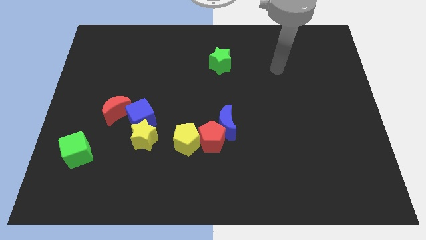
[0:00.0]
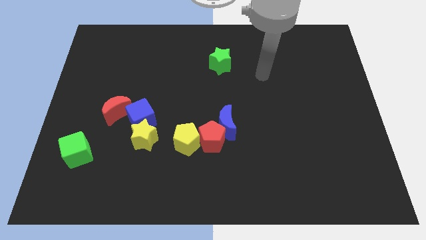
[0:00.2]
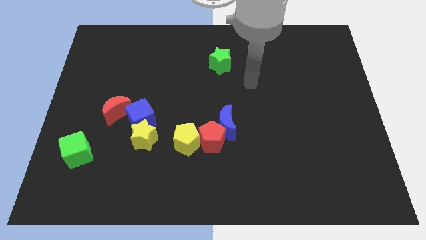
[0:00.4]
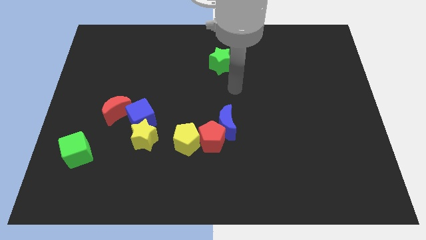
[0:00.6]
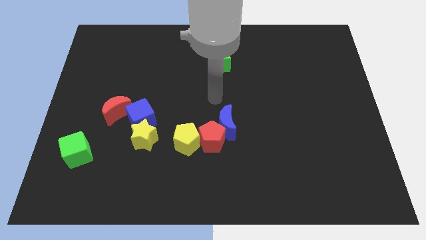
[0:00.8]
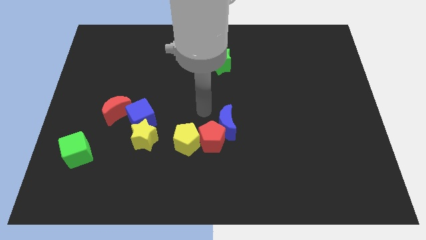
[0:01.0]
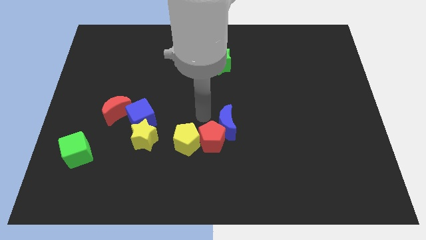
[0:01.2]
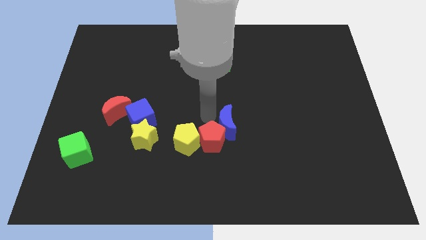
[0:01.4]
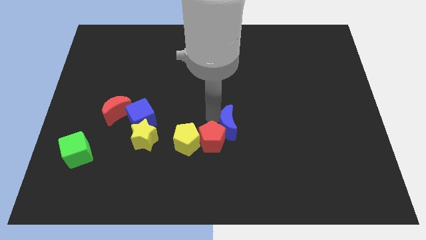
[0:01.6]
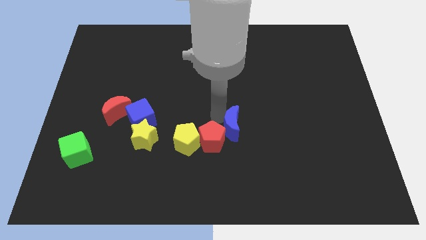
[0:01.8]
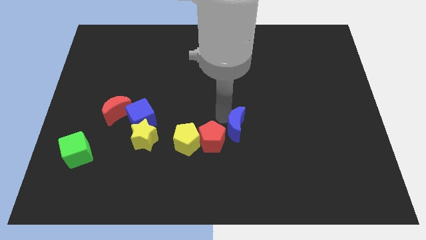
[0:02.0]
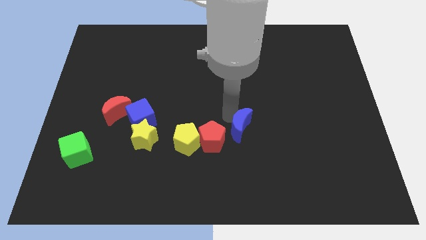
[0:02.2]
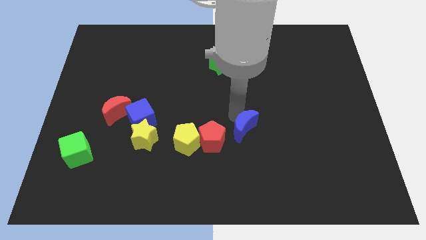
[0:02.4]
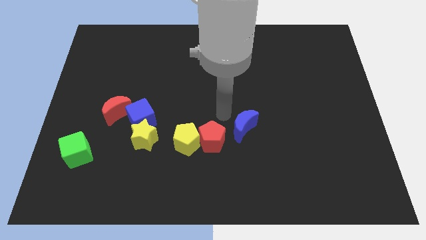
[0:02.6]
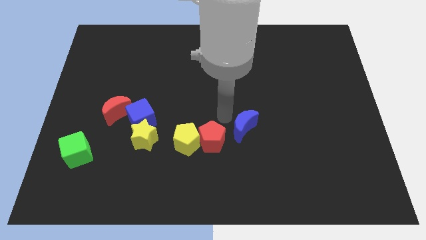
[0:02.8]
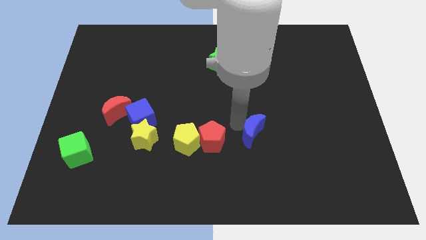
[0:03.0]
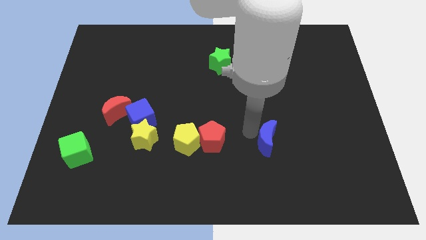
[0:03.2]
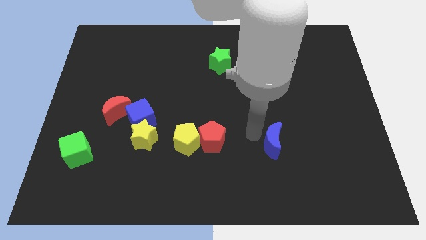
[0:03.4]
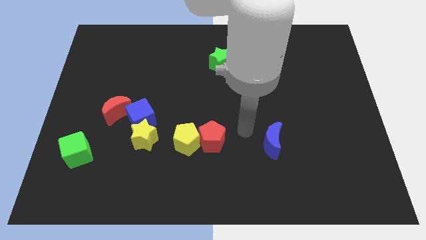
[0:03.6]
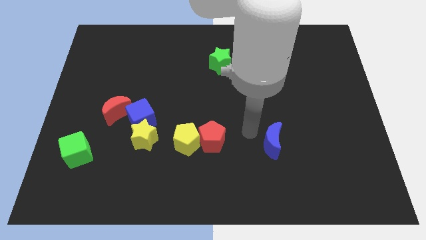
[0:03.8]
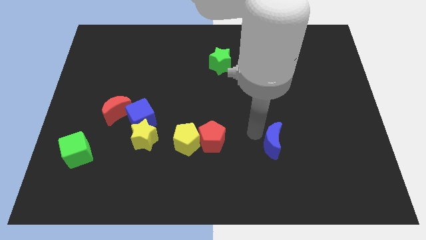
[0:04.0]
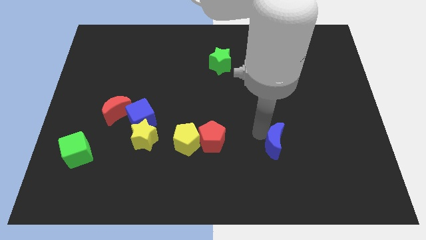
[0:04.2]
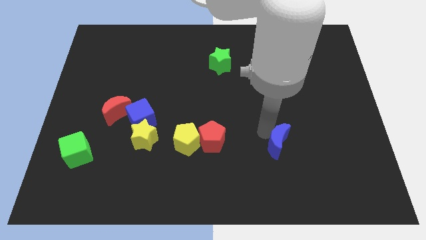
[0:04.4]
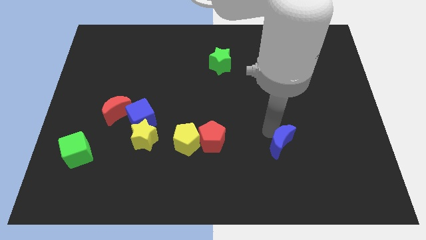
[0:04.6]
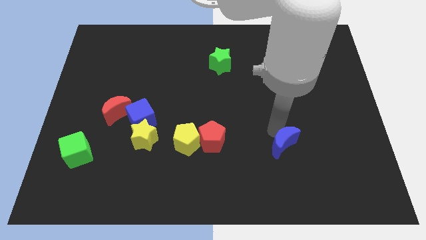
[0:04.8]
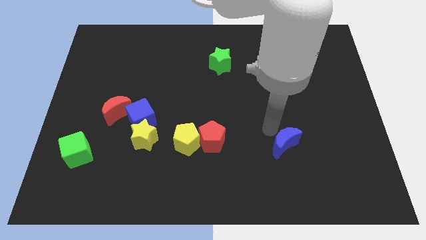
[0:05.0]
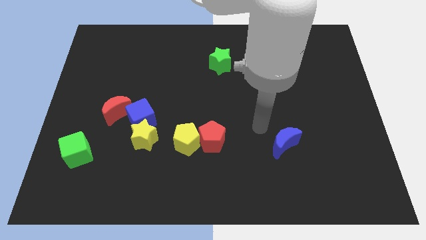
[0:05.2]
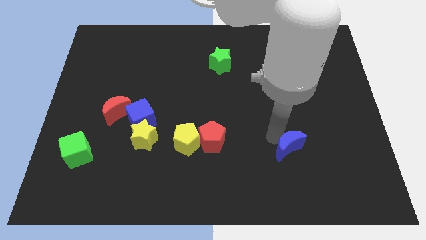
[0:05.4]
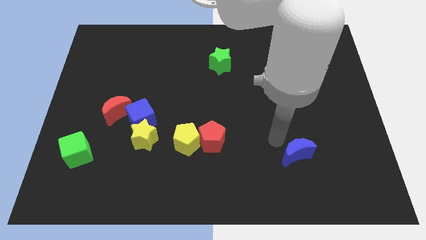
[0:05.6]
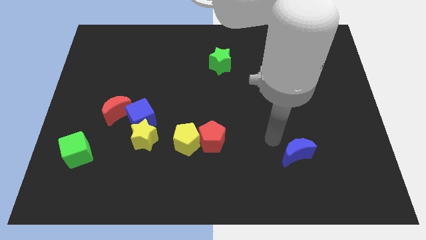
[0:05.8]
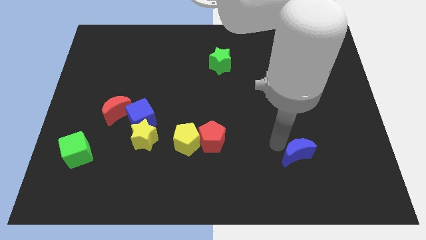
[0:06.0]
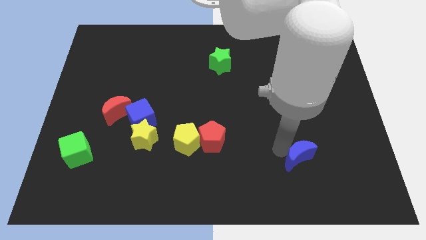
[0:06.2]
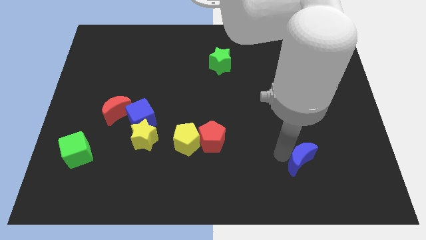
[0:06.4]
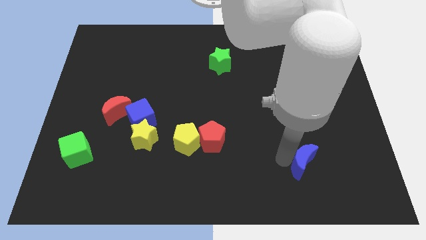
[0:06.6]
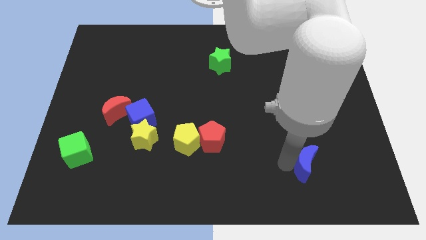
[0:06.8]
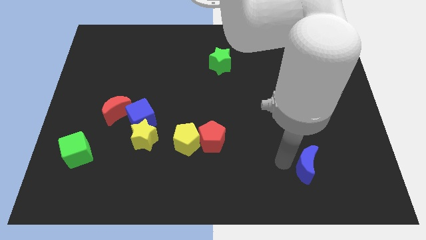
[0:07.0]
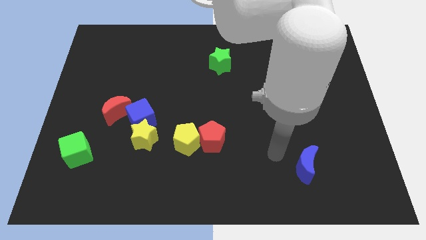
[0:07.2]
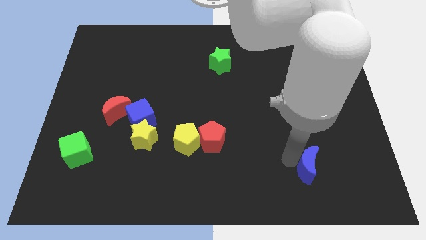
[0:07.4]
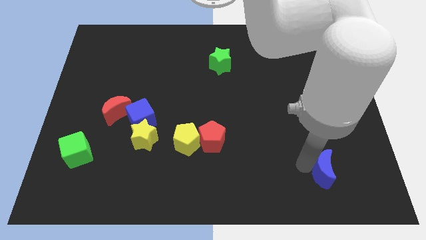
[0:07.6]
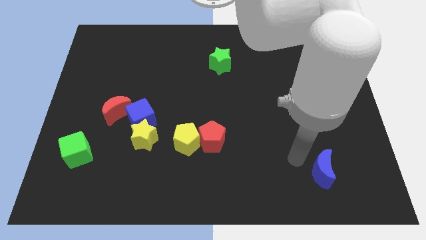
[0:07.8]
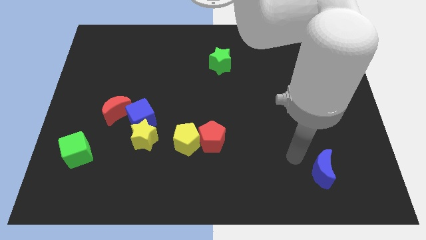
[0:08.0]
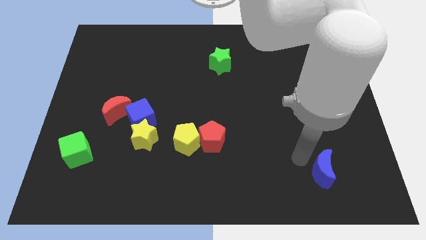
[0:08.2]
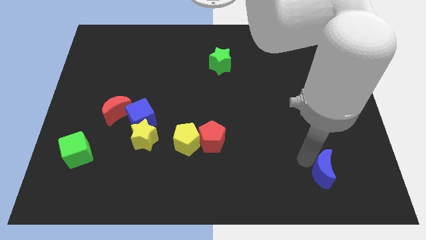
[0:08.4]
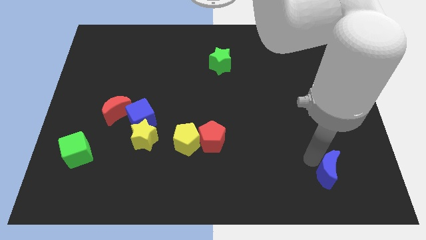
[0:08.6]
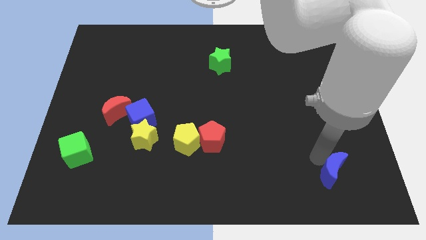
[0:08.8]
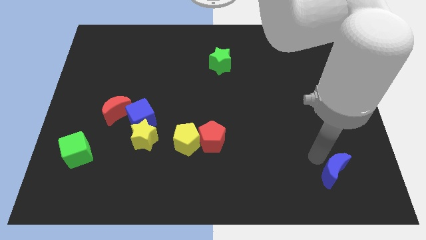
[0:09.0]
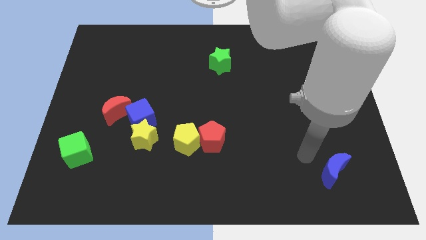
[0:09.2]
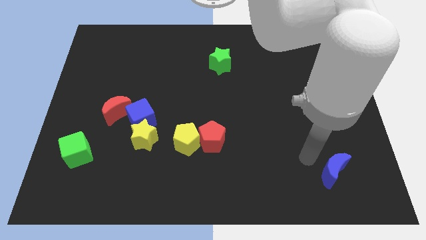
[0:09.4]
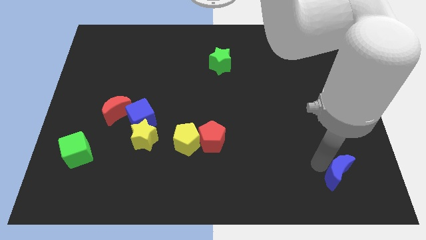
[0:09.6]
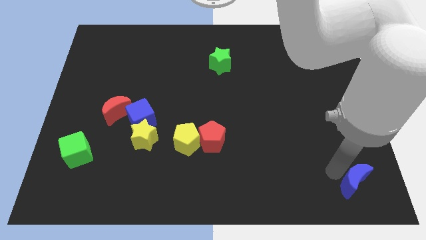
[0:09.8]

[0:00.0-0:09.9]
slide the blue moon to the bottom right of the board

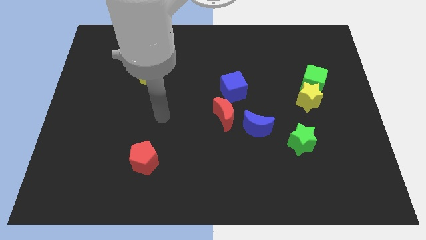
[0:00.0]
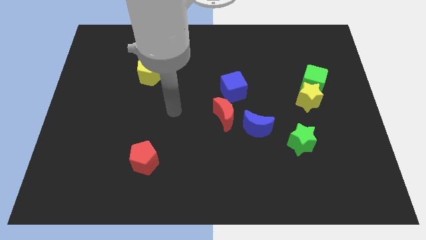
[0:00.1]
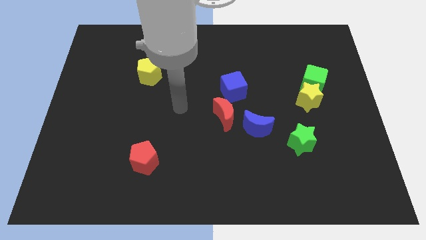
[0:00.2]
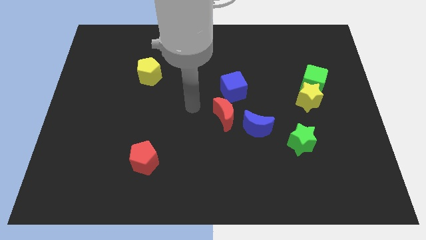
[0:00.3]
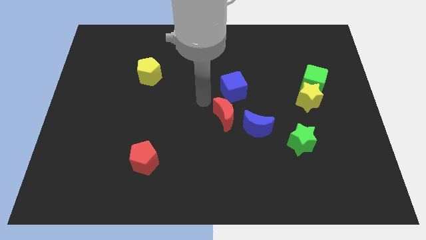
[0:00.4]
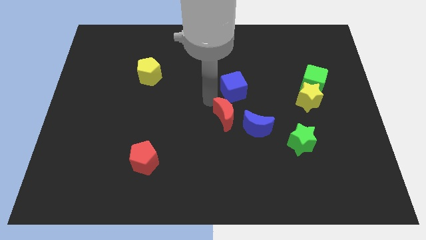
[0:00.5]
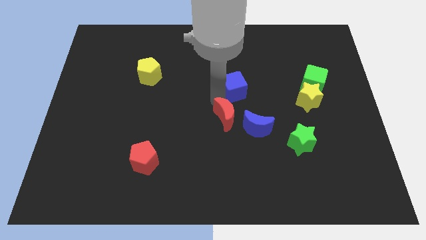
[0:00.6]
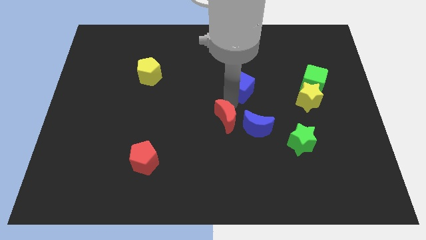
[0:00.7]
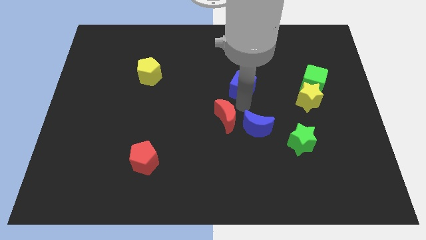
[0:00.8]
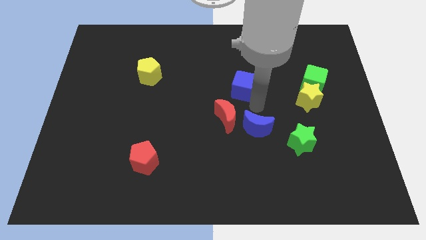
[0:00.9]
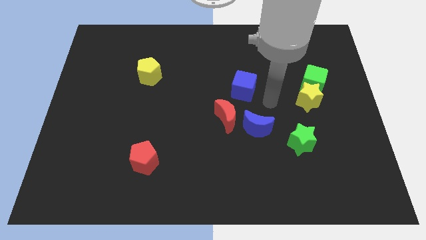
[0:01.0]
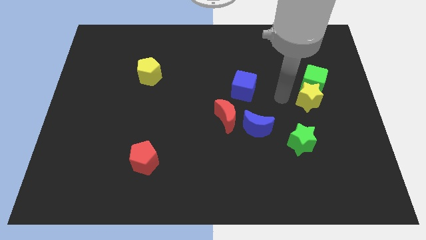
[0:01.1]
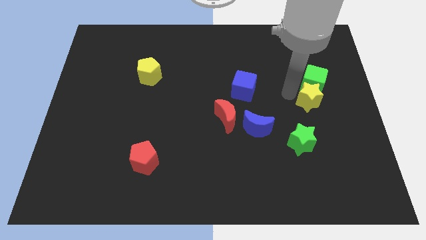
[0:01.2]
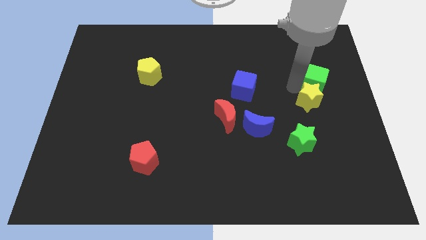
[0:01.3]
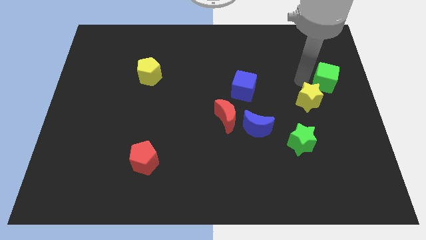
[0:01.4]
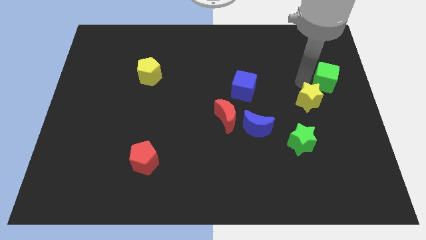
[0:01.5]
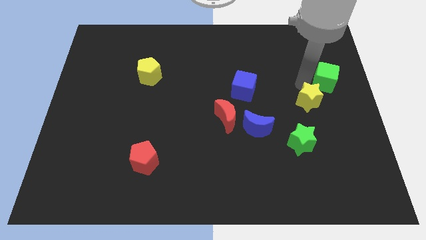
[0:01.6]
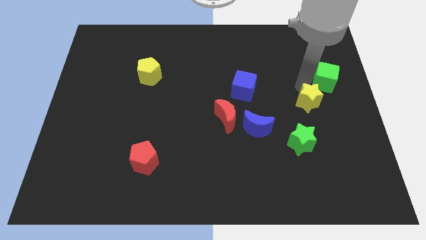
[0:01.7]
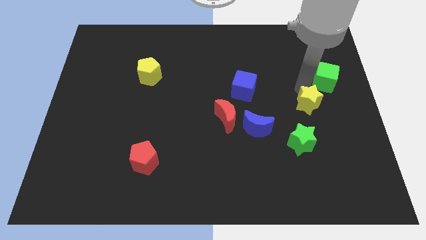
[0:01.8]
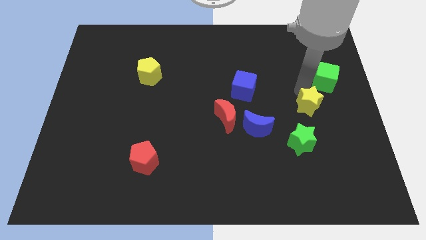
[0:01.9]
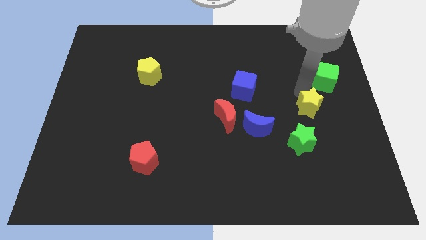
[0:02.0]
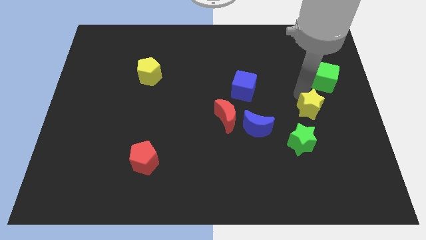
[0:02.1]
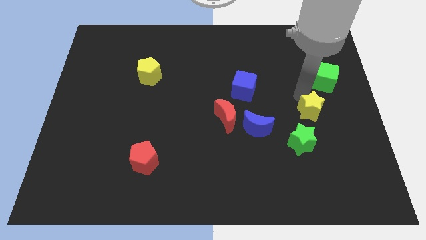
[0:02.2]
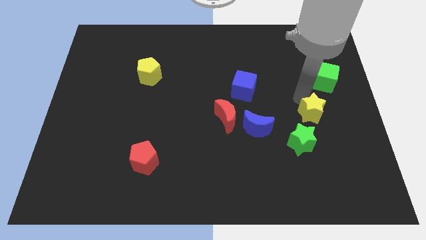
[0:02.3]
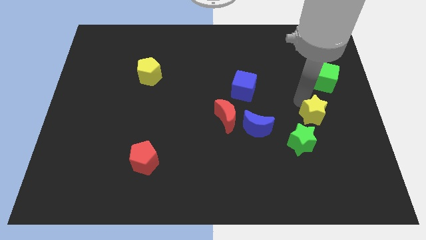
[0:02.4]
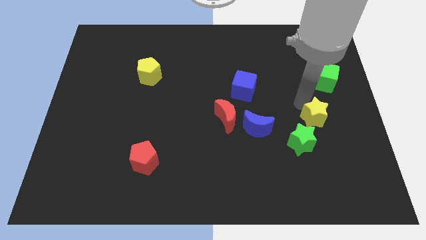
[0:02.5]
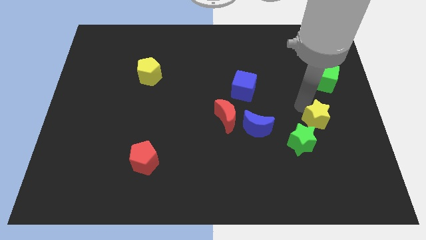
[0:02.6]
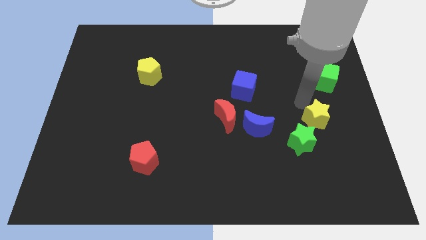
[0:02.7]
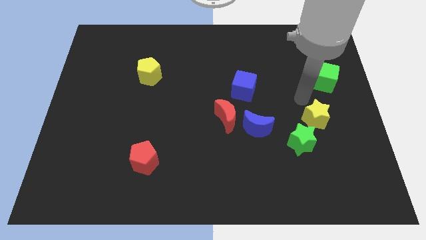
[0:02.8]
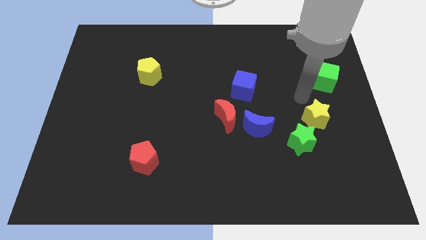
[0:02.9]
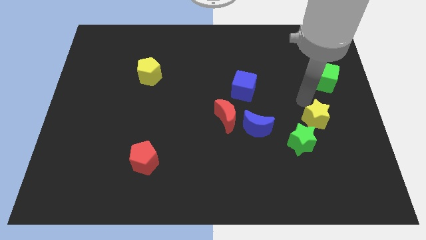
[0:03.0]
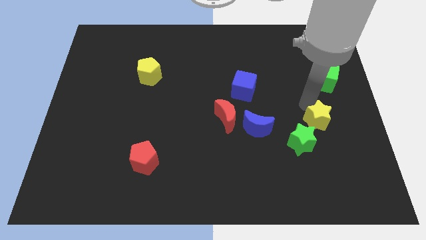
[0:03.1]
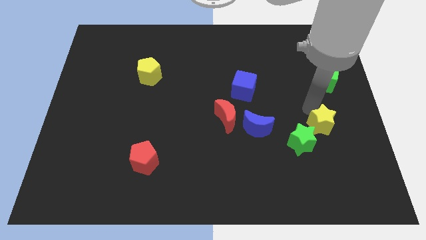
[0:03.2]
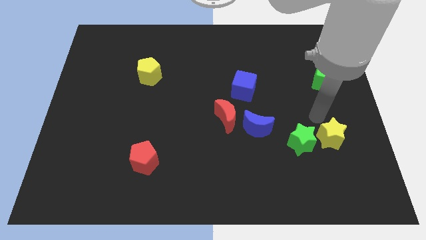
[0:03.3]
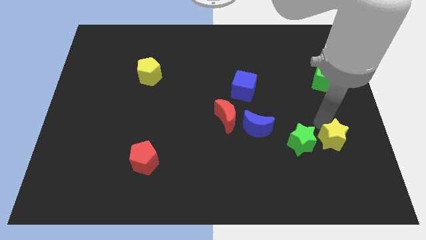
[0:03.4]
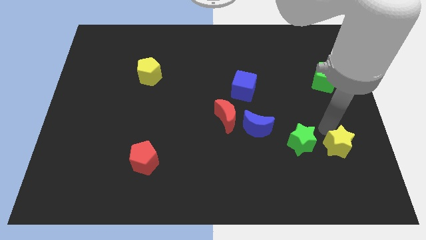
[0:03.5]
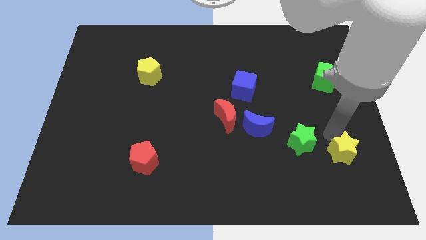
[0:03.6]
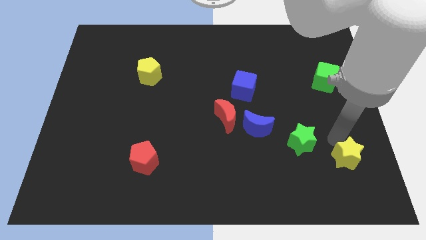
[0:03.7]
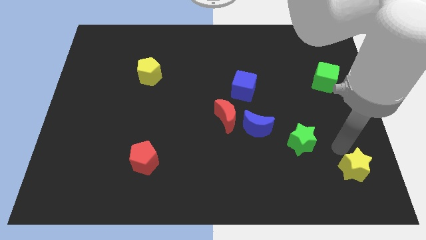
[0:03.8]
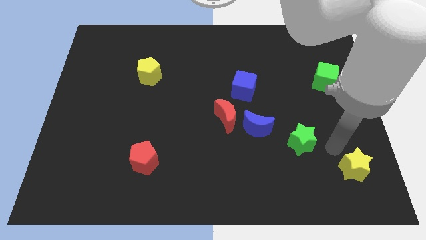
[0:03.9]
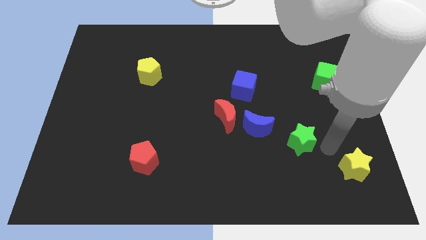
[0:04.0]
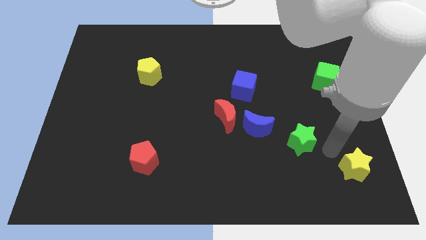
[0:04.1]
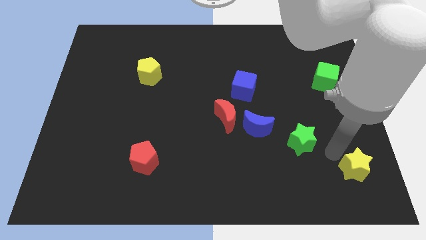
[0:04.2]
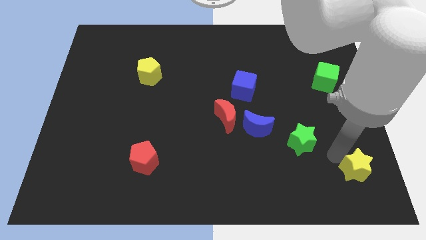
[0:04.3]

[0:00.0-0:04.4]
move the yellow star to the bottom right of the board
